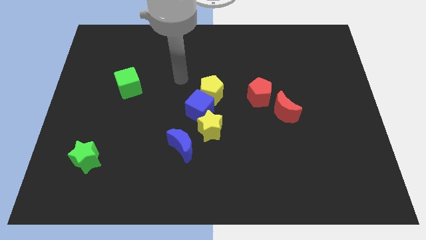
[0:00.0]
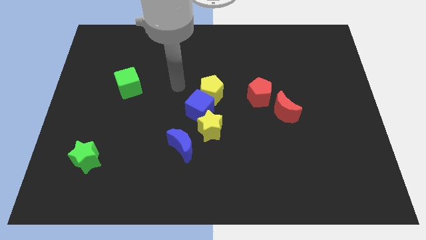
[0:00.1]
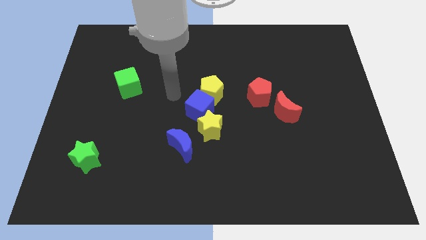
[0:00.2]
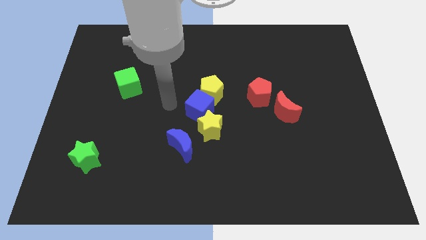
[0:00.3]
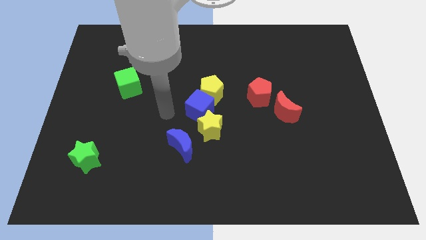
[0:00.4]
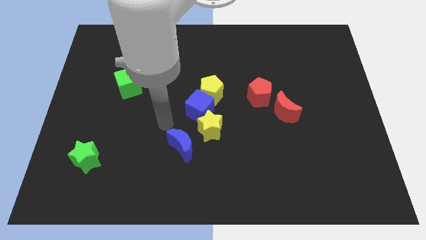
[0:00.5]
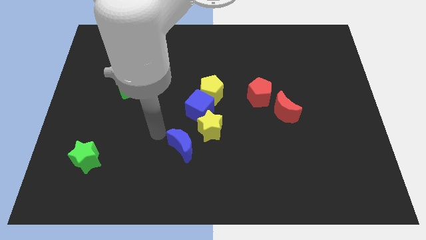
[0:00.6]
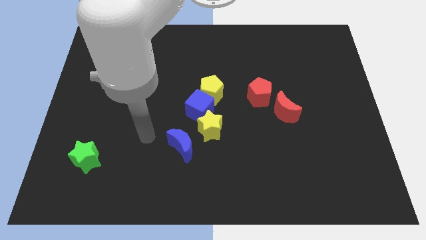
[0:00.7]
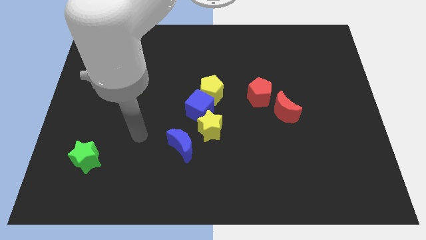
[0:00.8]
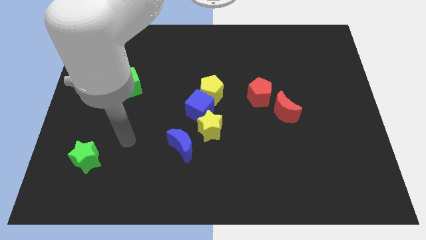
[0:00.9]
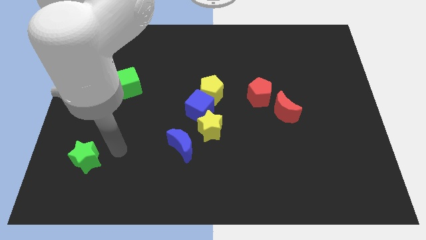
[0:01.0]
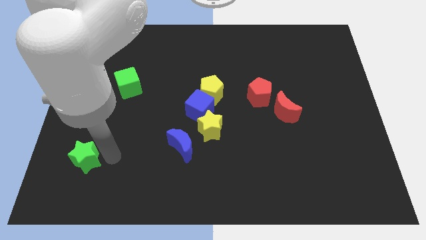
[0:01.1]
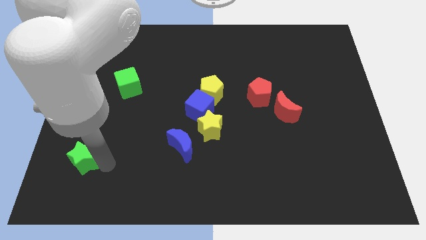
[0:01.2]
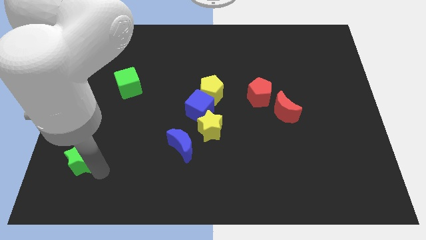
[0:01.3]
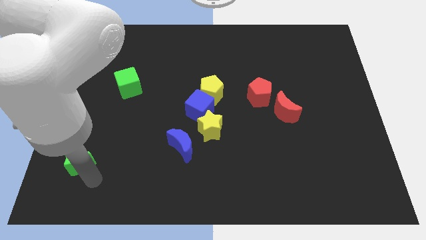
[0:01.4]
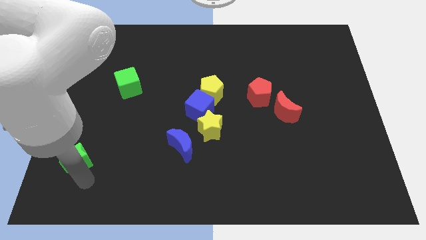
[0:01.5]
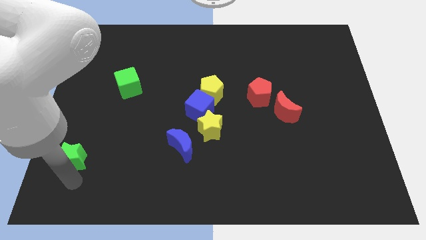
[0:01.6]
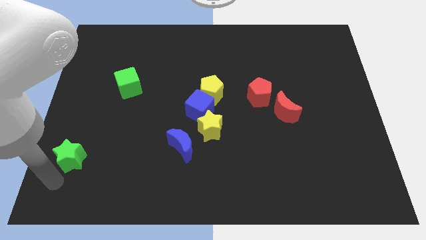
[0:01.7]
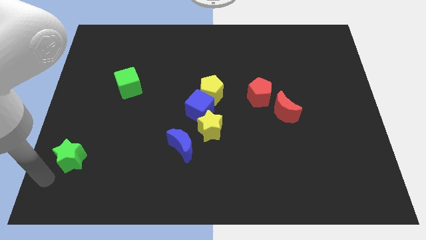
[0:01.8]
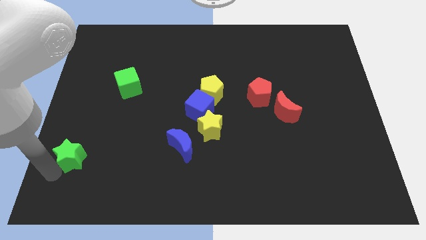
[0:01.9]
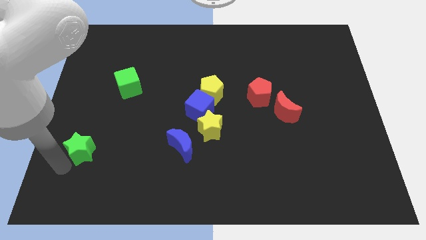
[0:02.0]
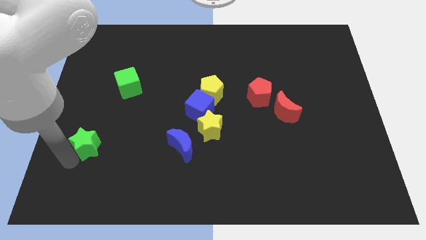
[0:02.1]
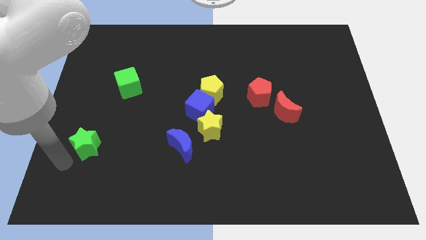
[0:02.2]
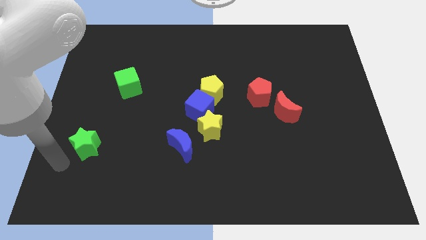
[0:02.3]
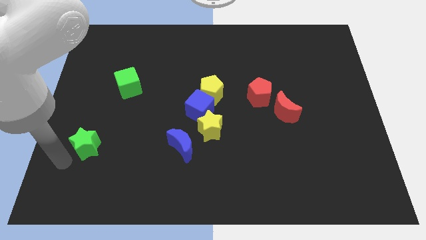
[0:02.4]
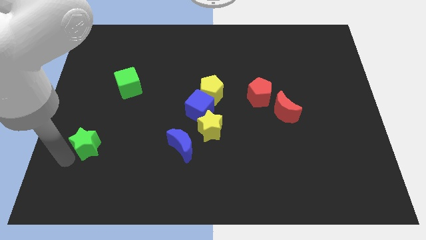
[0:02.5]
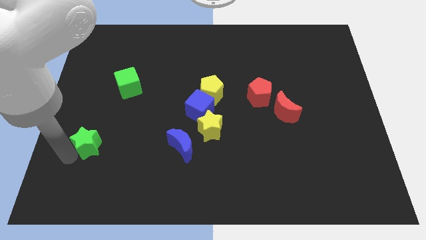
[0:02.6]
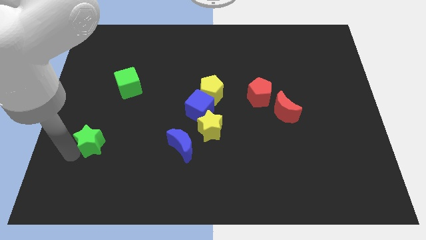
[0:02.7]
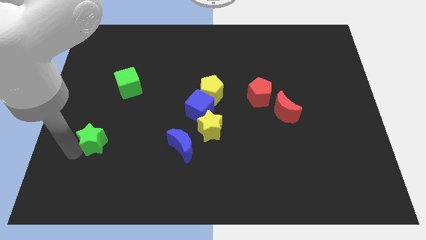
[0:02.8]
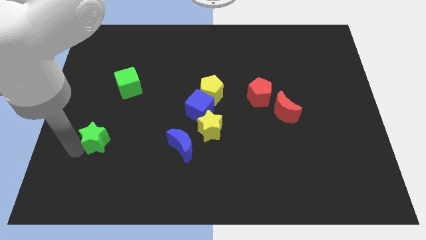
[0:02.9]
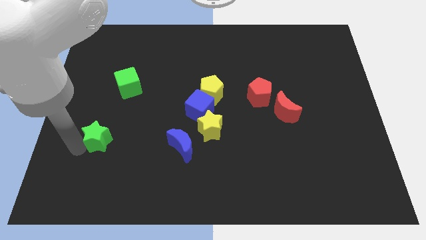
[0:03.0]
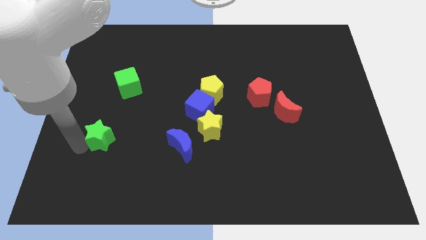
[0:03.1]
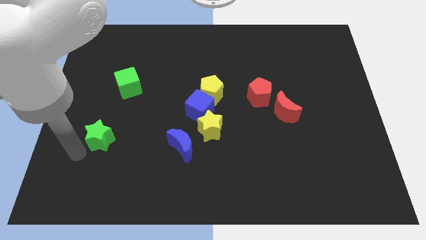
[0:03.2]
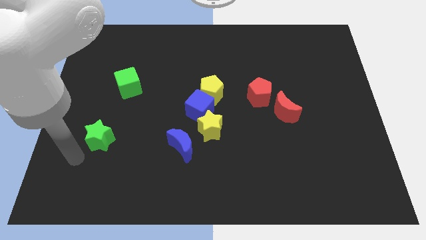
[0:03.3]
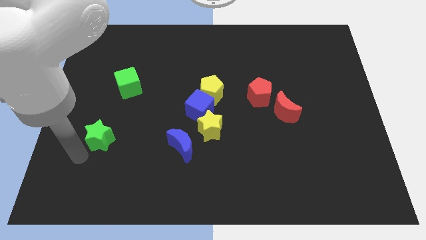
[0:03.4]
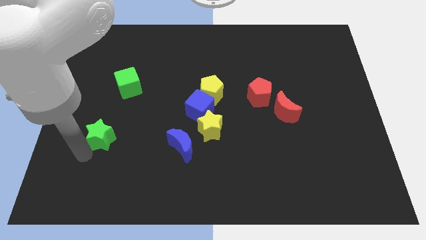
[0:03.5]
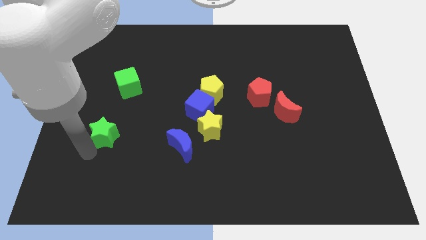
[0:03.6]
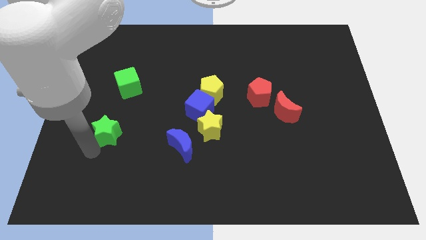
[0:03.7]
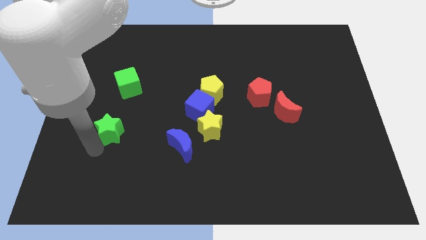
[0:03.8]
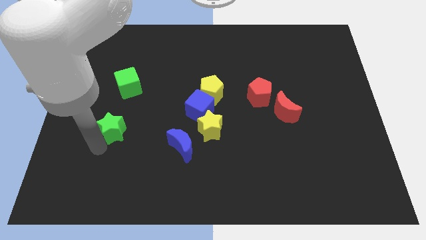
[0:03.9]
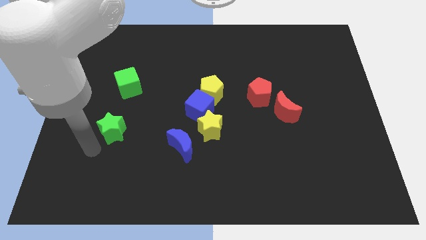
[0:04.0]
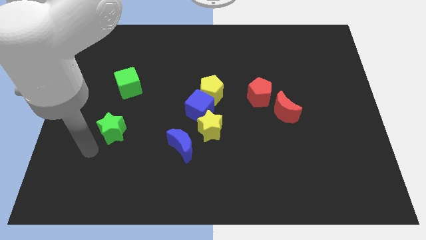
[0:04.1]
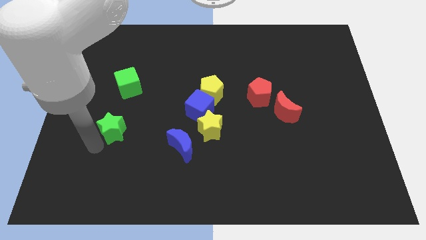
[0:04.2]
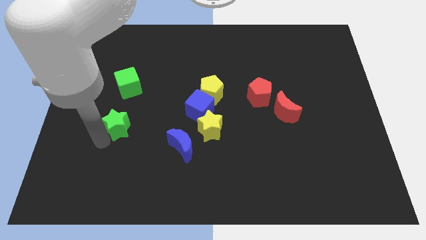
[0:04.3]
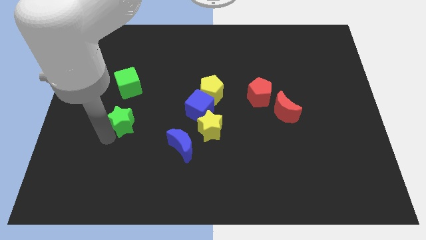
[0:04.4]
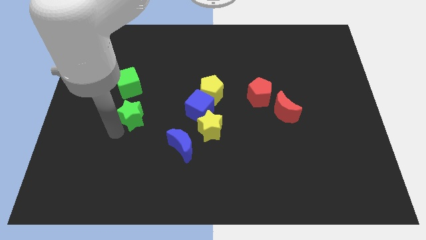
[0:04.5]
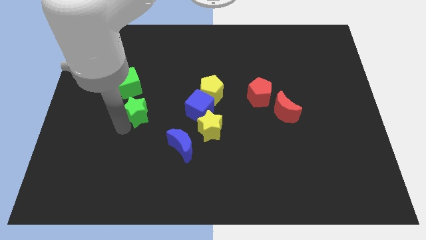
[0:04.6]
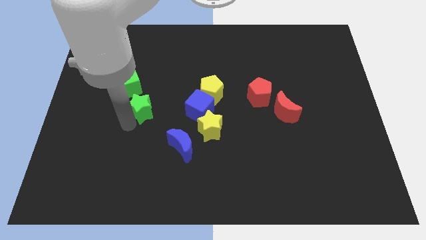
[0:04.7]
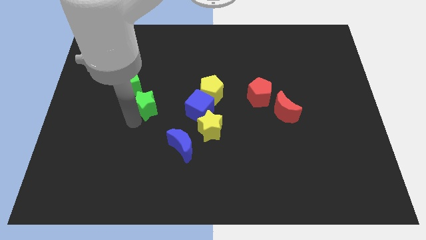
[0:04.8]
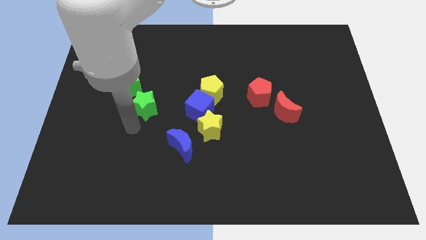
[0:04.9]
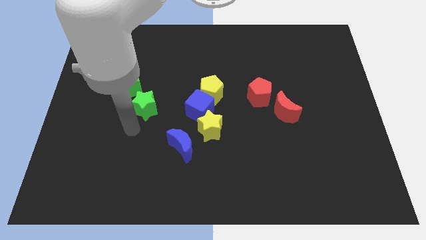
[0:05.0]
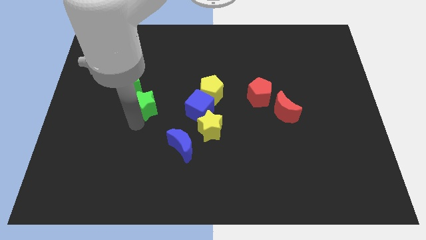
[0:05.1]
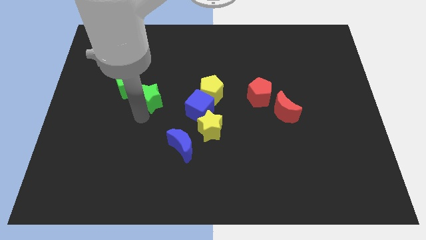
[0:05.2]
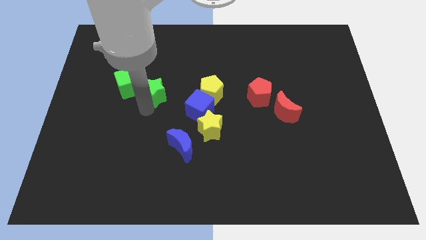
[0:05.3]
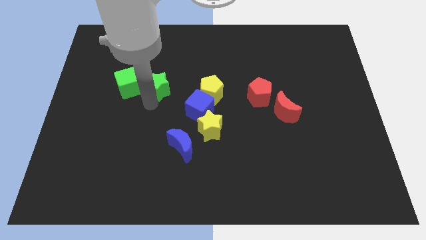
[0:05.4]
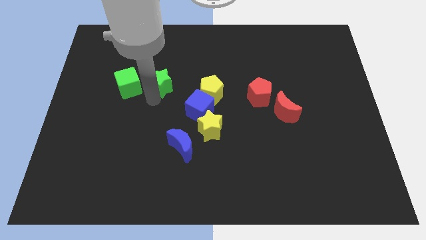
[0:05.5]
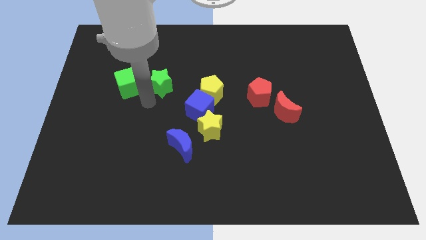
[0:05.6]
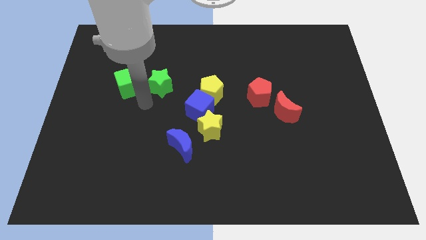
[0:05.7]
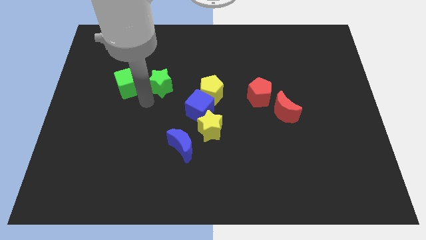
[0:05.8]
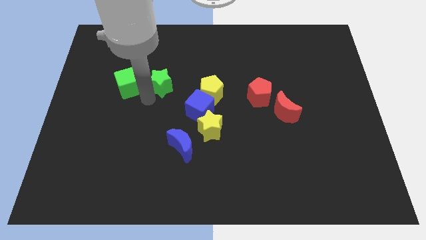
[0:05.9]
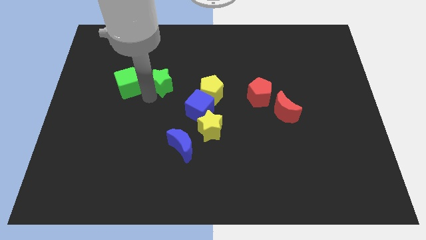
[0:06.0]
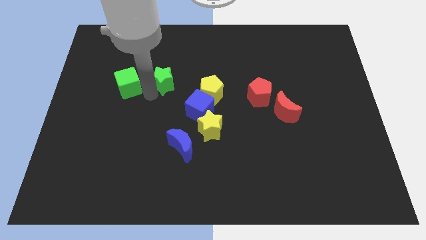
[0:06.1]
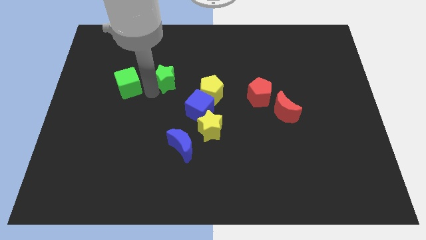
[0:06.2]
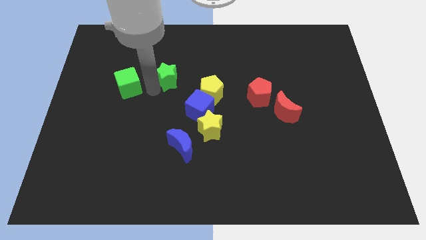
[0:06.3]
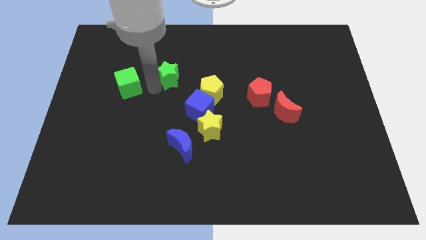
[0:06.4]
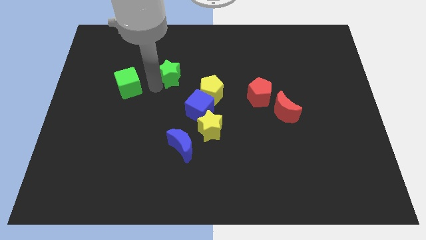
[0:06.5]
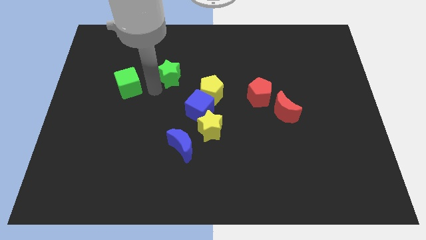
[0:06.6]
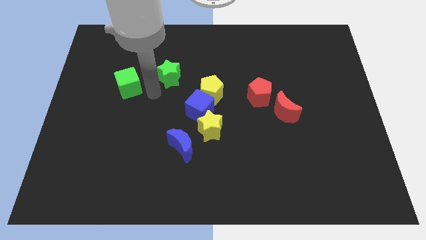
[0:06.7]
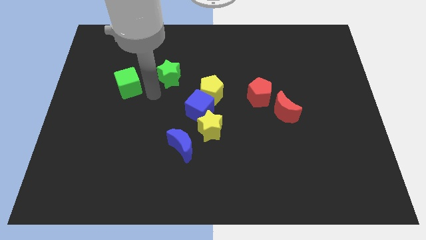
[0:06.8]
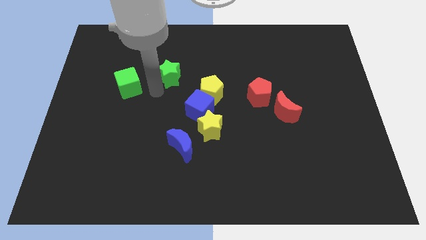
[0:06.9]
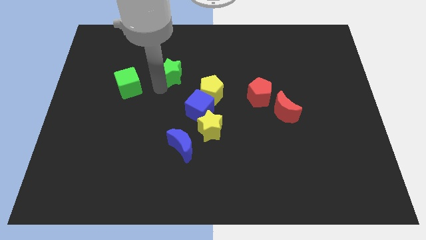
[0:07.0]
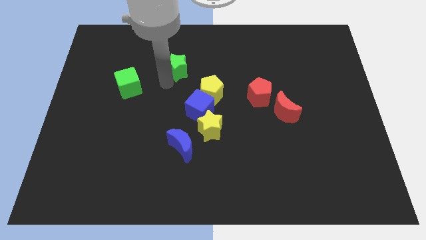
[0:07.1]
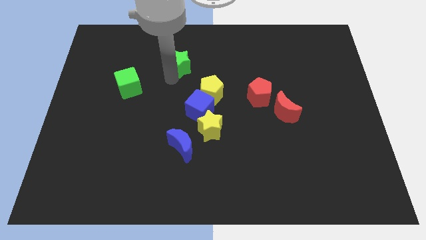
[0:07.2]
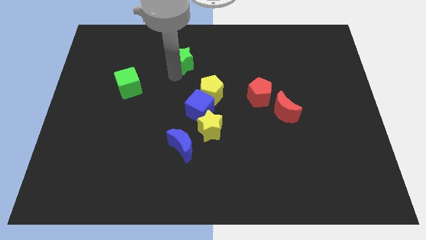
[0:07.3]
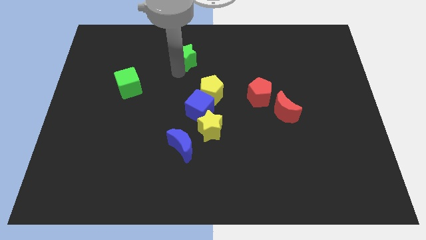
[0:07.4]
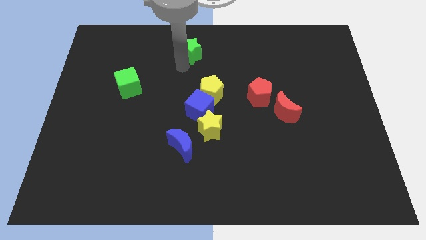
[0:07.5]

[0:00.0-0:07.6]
put the green star to the towards your base
